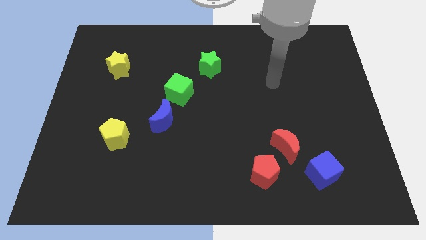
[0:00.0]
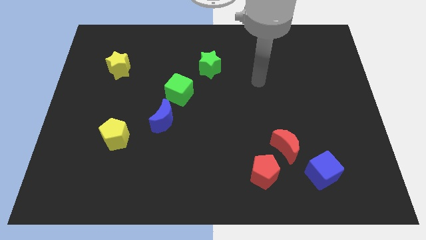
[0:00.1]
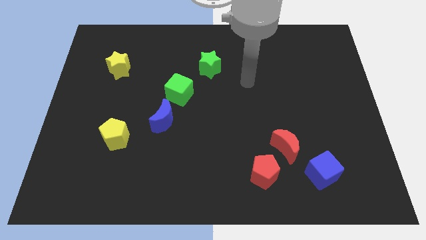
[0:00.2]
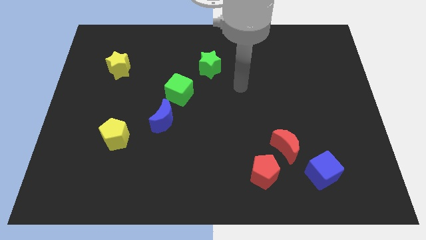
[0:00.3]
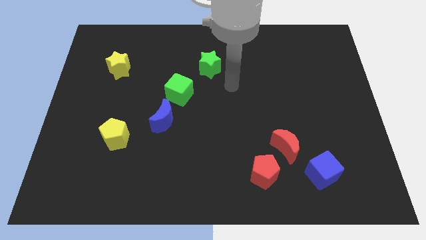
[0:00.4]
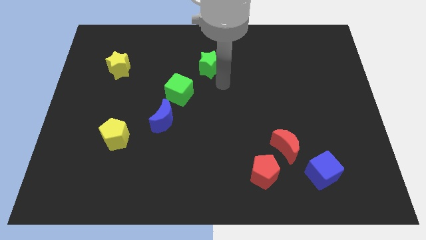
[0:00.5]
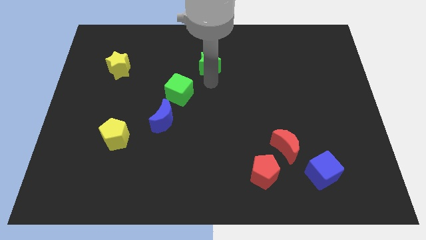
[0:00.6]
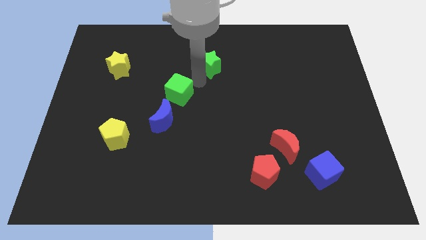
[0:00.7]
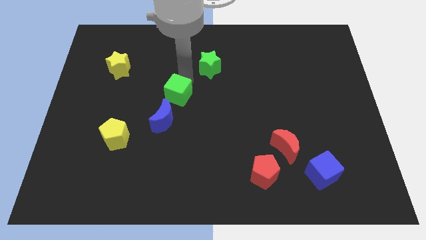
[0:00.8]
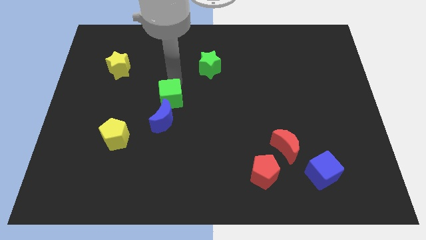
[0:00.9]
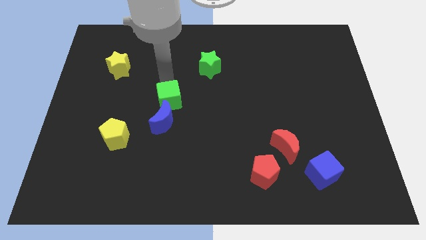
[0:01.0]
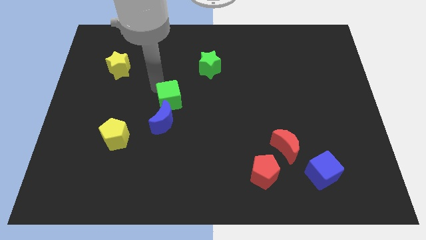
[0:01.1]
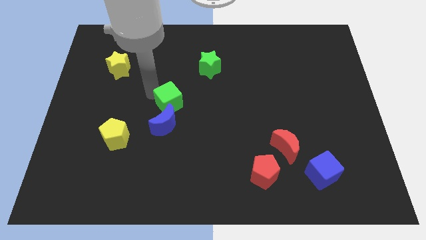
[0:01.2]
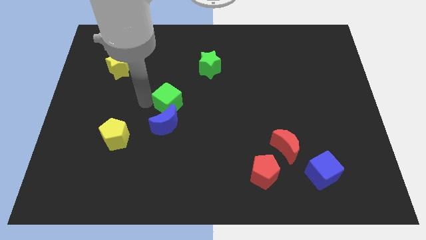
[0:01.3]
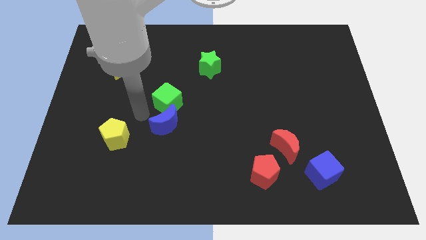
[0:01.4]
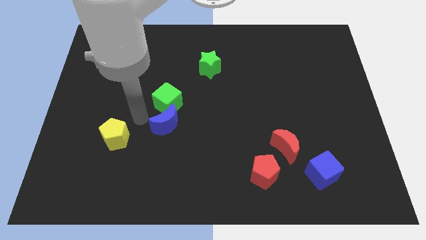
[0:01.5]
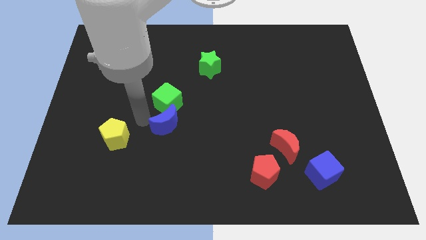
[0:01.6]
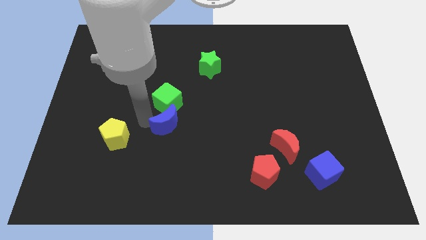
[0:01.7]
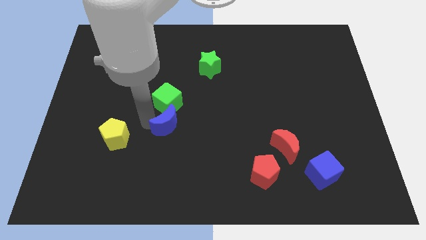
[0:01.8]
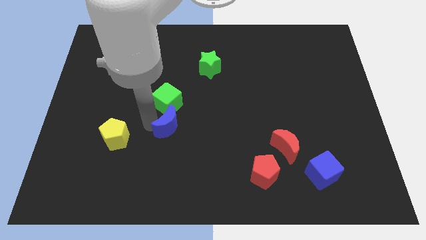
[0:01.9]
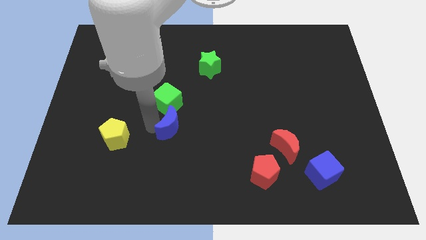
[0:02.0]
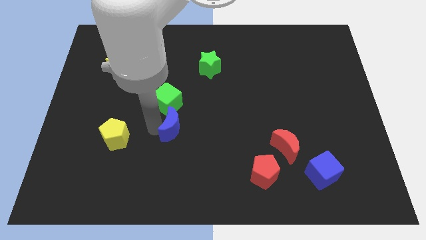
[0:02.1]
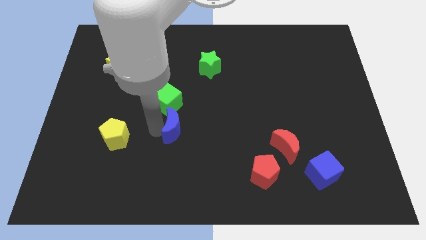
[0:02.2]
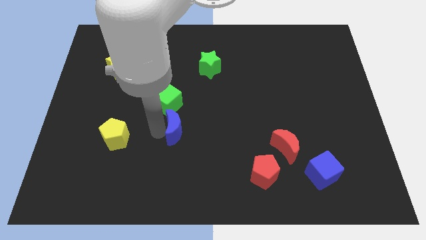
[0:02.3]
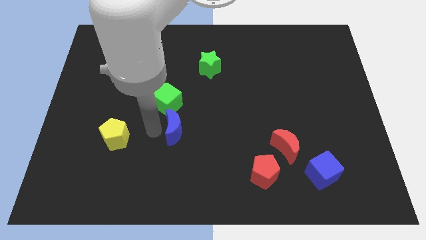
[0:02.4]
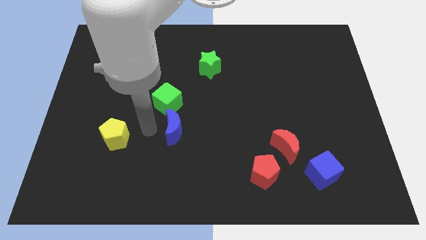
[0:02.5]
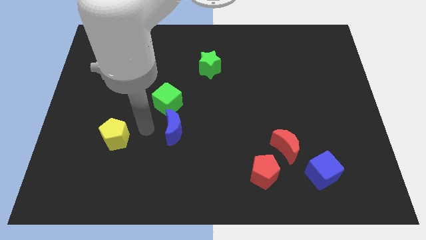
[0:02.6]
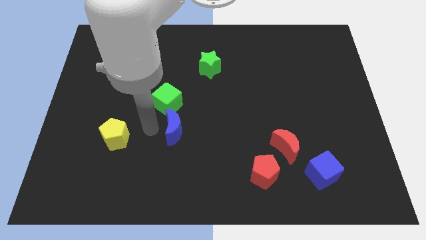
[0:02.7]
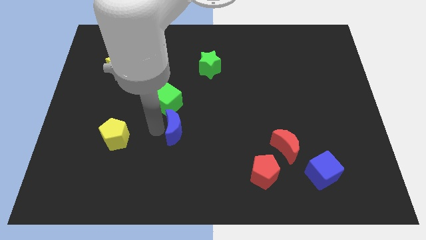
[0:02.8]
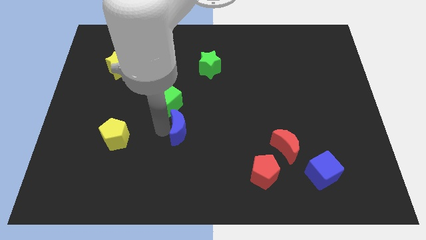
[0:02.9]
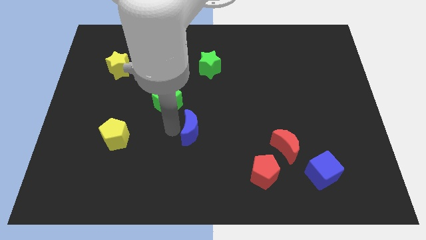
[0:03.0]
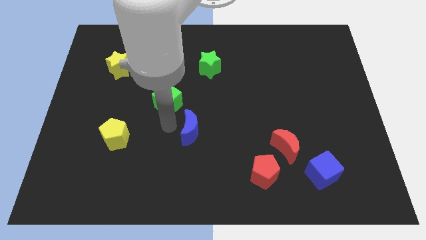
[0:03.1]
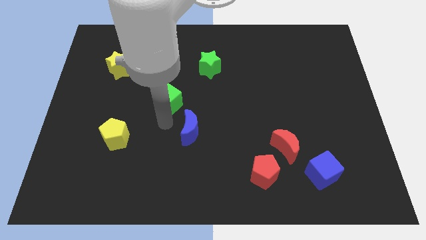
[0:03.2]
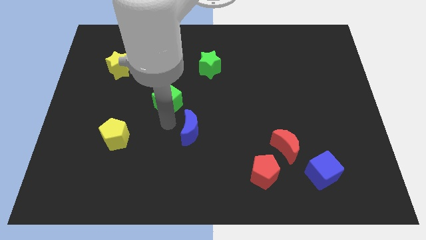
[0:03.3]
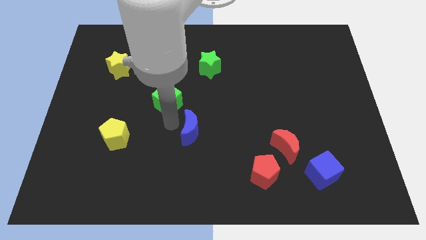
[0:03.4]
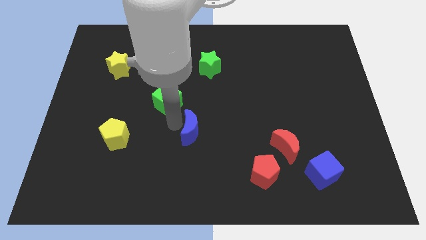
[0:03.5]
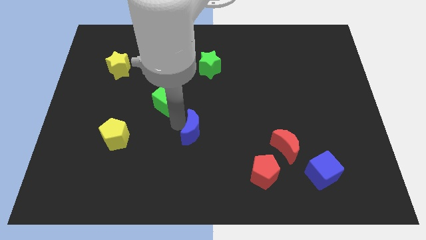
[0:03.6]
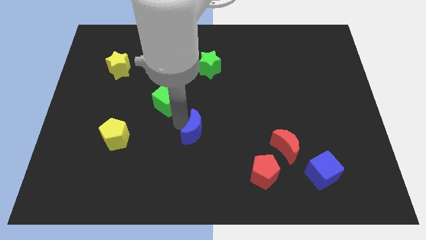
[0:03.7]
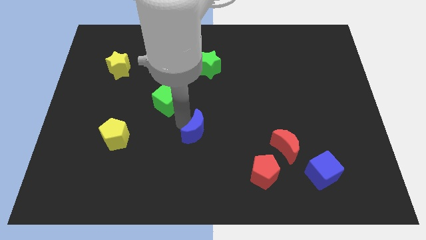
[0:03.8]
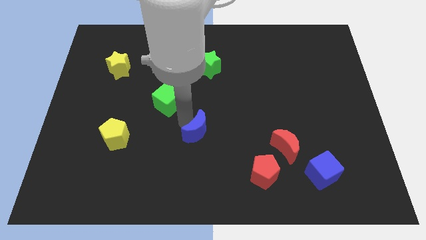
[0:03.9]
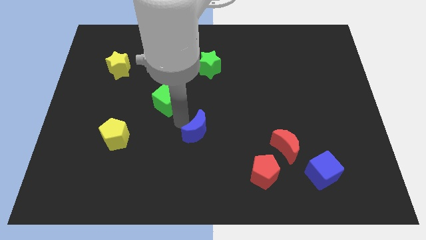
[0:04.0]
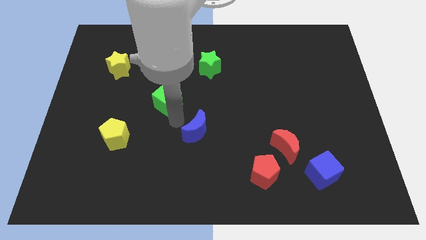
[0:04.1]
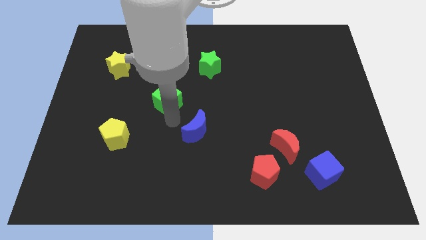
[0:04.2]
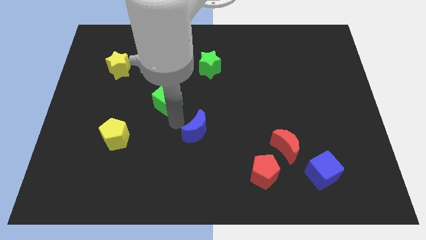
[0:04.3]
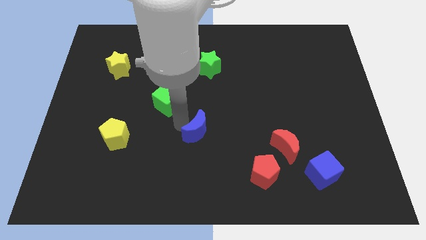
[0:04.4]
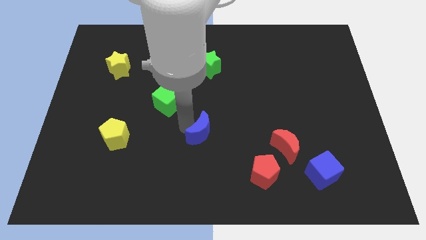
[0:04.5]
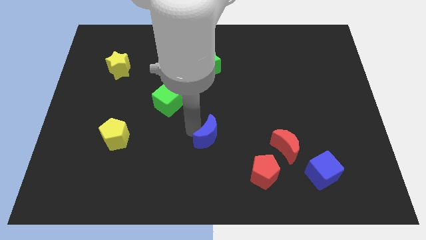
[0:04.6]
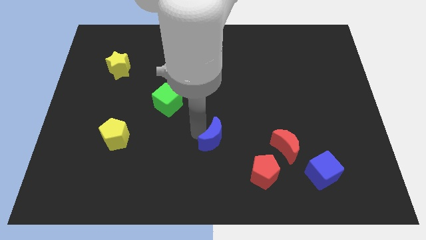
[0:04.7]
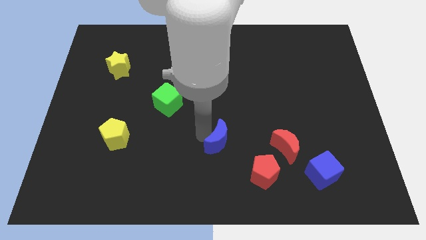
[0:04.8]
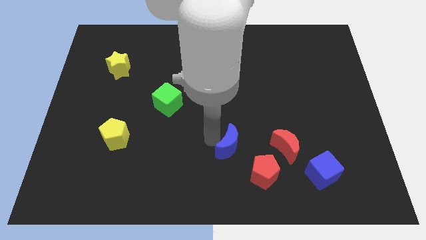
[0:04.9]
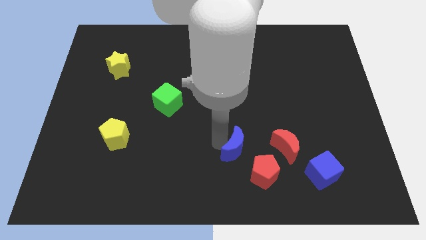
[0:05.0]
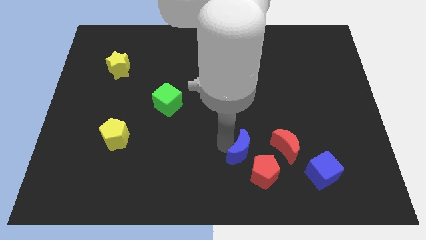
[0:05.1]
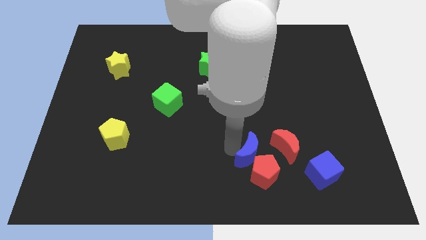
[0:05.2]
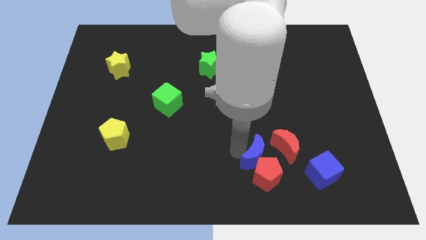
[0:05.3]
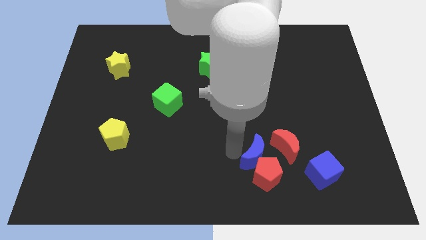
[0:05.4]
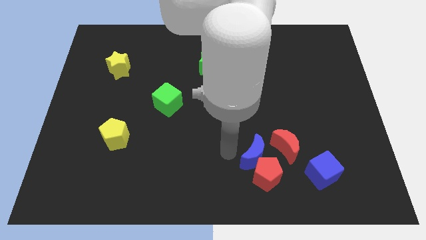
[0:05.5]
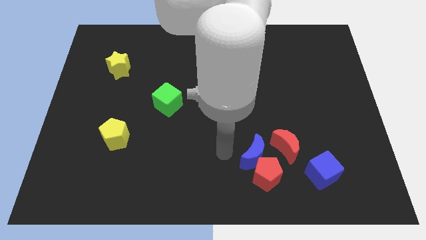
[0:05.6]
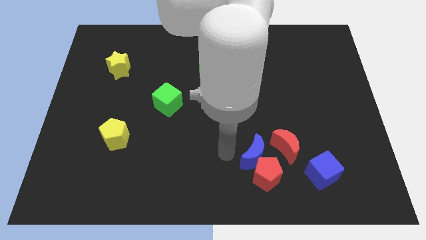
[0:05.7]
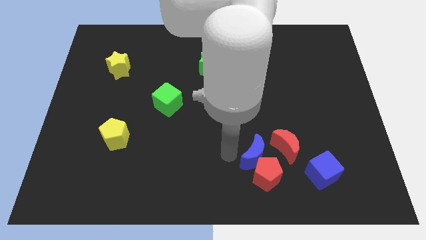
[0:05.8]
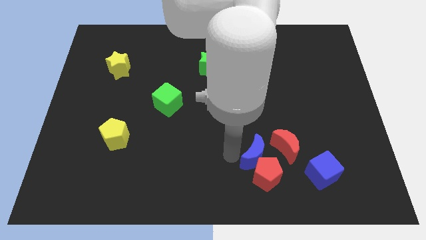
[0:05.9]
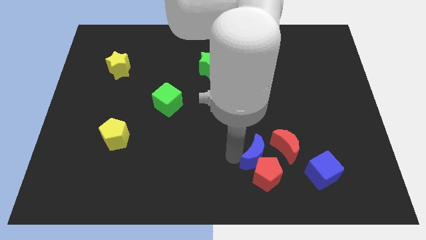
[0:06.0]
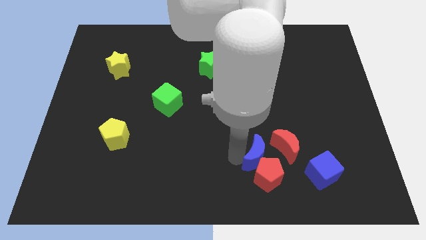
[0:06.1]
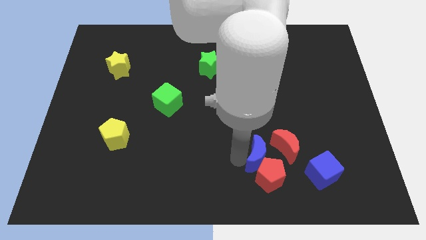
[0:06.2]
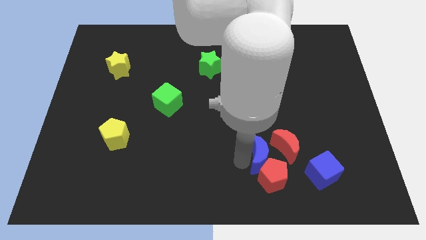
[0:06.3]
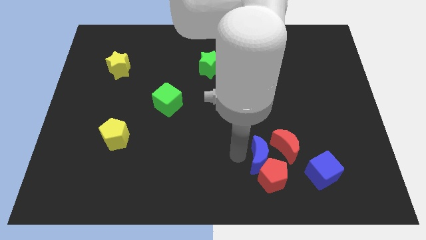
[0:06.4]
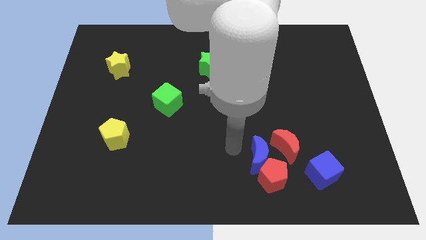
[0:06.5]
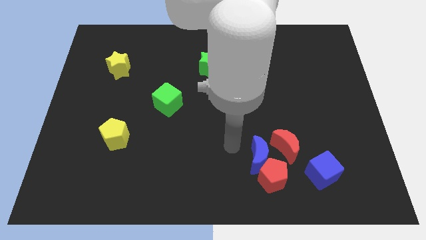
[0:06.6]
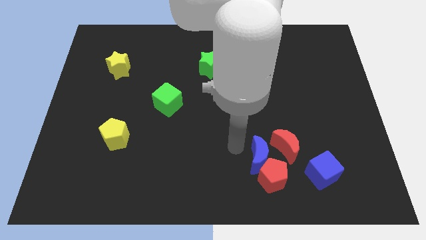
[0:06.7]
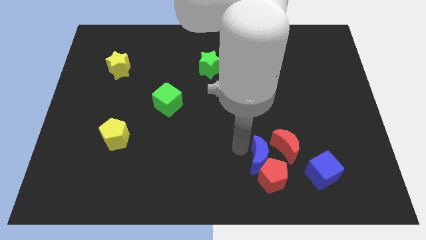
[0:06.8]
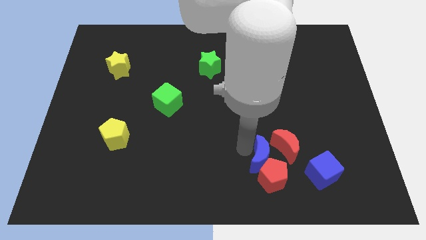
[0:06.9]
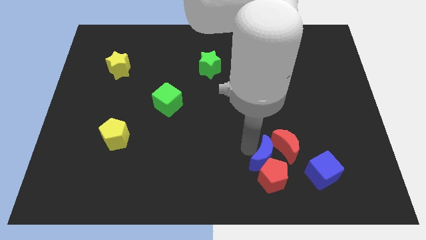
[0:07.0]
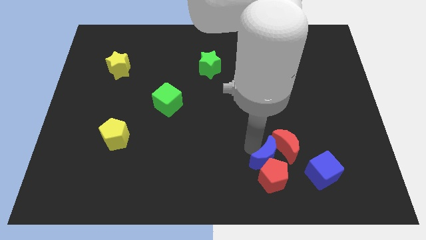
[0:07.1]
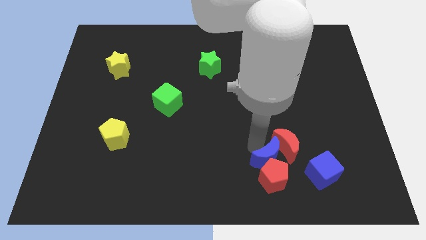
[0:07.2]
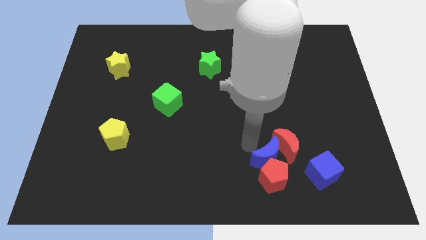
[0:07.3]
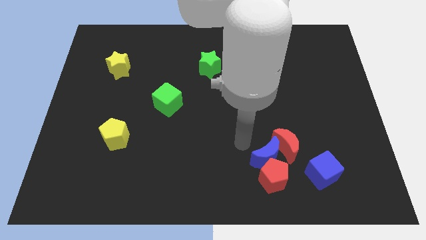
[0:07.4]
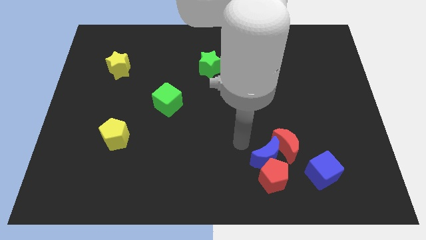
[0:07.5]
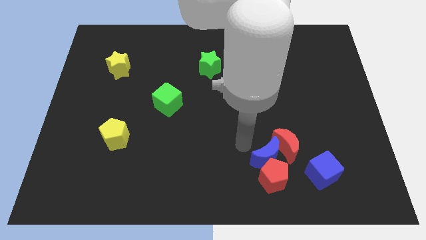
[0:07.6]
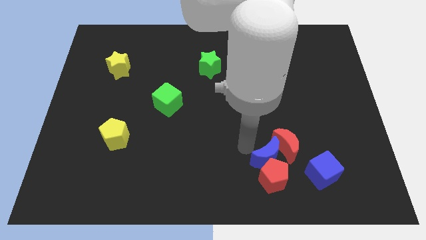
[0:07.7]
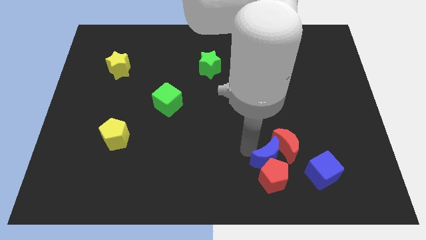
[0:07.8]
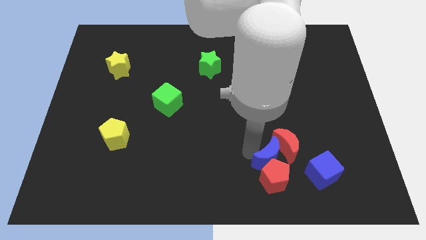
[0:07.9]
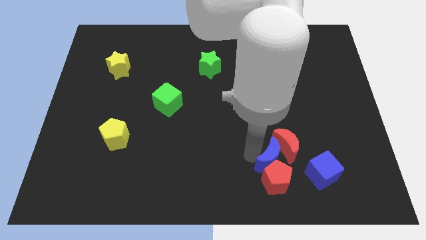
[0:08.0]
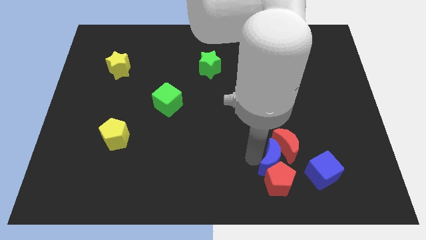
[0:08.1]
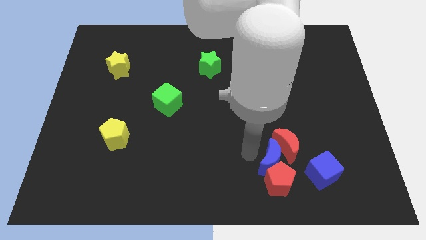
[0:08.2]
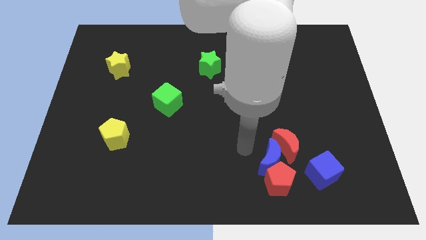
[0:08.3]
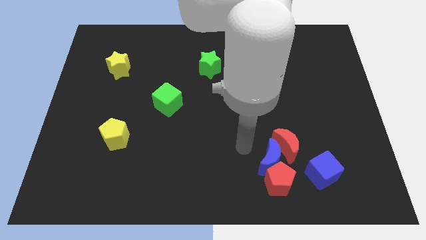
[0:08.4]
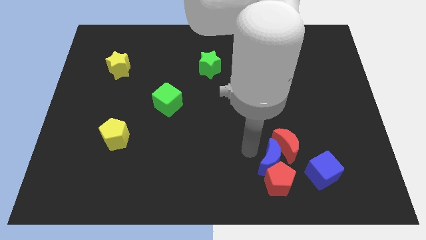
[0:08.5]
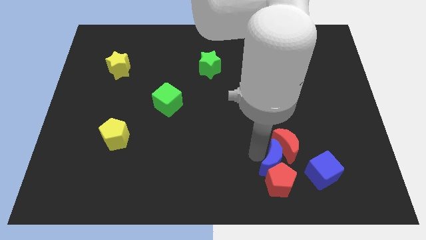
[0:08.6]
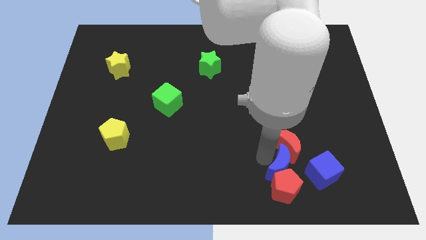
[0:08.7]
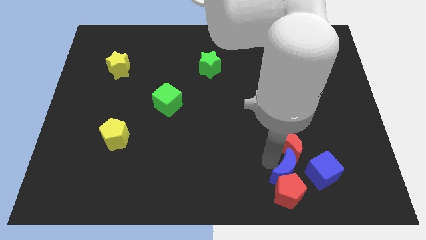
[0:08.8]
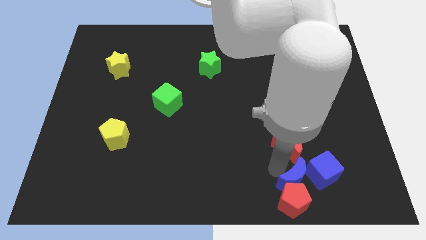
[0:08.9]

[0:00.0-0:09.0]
put the blue moon next to the blue cube
